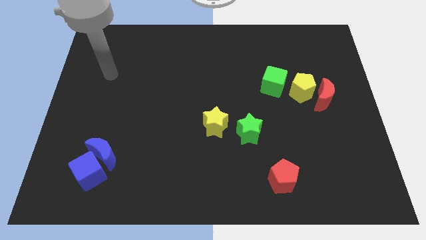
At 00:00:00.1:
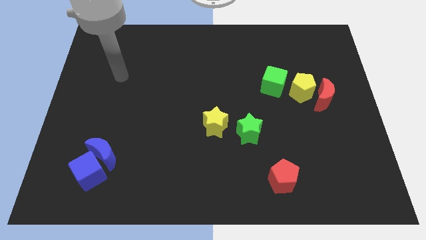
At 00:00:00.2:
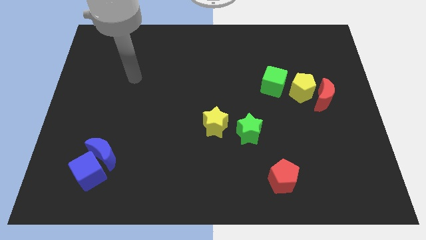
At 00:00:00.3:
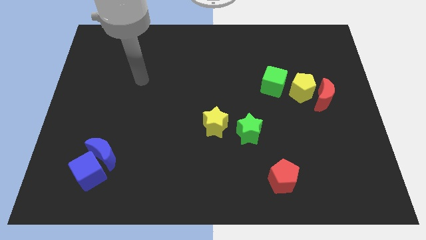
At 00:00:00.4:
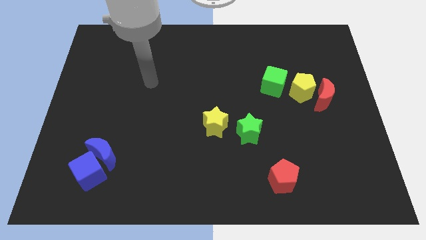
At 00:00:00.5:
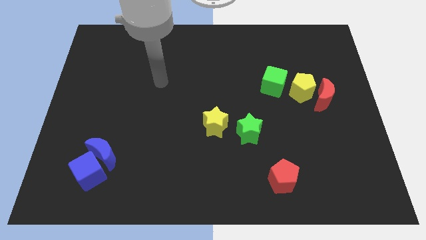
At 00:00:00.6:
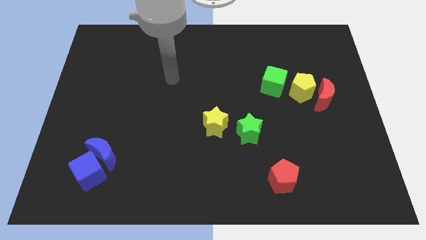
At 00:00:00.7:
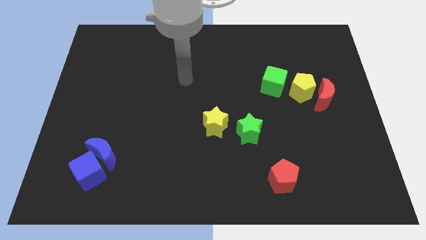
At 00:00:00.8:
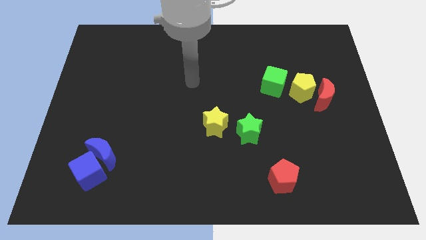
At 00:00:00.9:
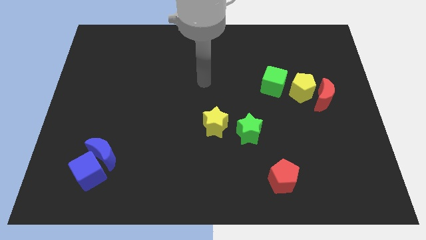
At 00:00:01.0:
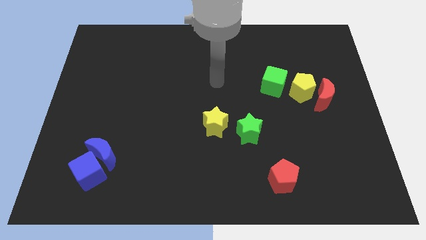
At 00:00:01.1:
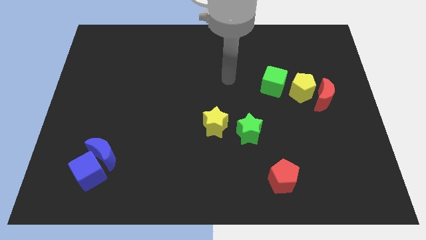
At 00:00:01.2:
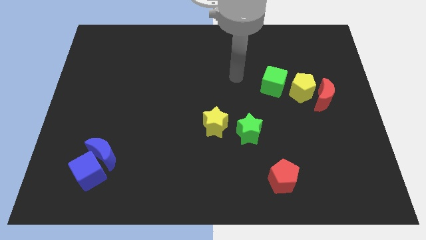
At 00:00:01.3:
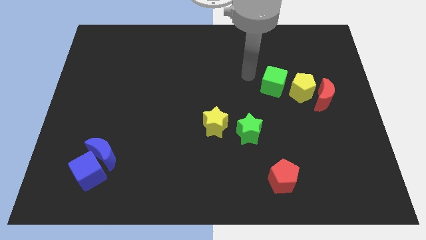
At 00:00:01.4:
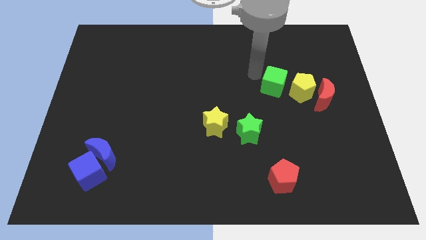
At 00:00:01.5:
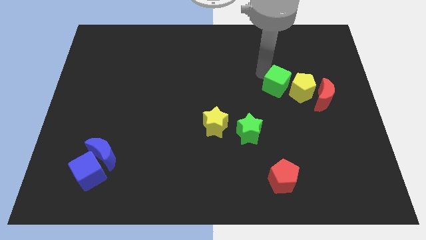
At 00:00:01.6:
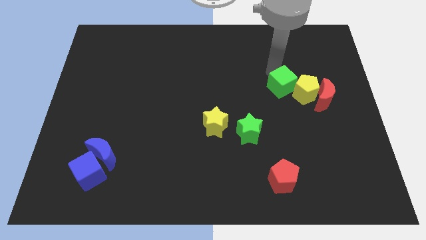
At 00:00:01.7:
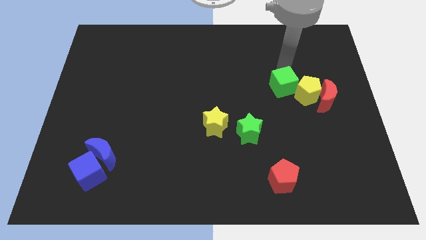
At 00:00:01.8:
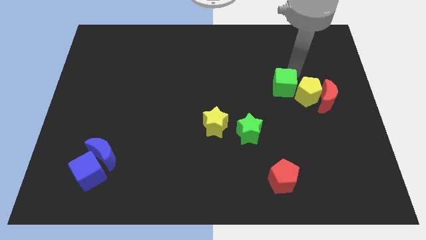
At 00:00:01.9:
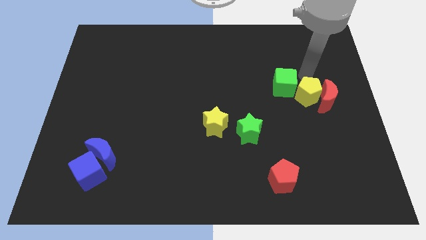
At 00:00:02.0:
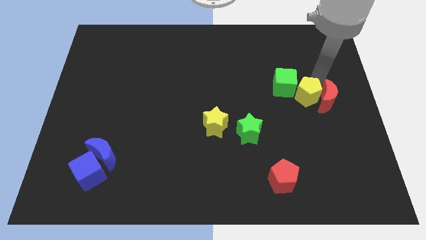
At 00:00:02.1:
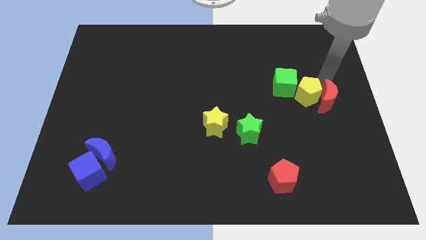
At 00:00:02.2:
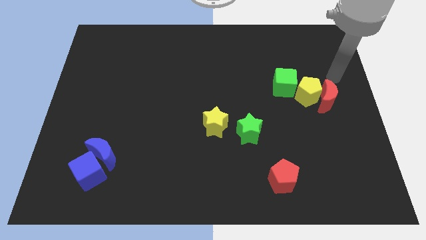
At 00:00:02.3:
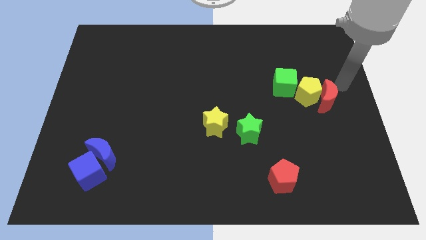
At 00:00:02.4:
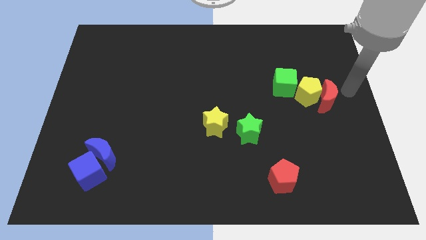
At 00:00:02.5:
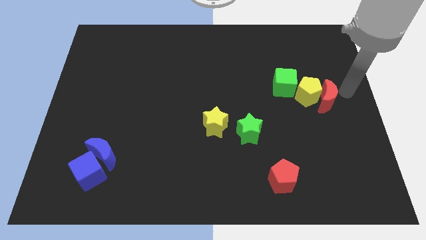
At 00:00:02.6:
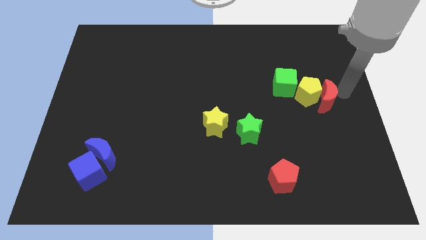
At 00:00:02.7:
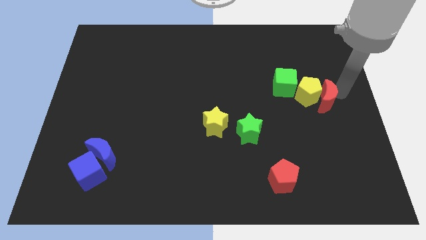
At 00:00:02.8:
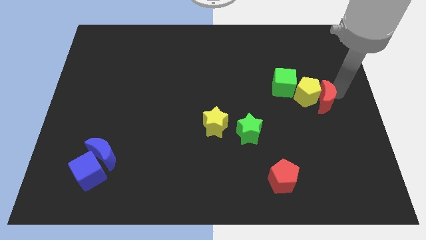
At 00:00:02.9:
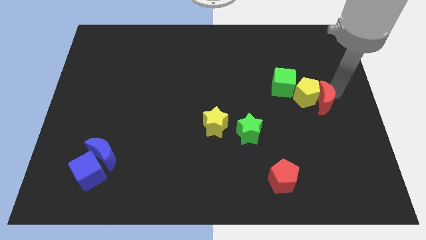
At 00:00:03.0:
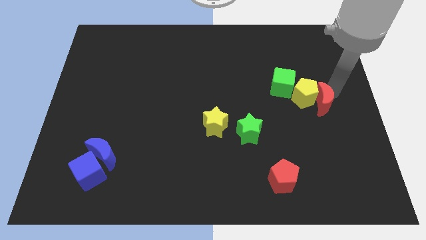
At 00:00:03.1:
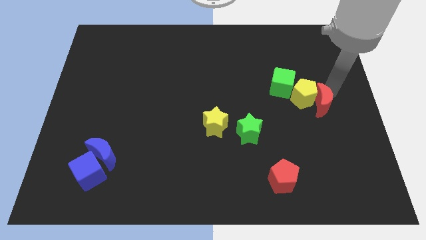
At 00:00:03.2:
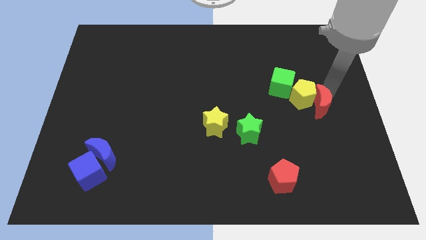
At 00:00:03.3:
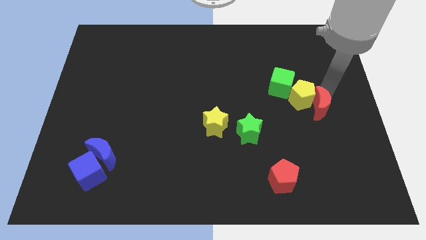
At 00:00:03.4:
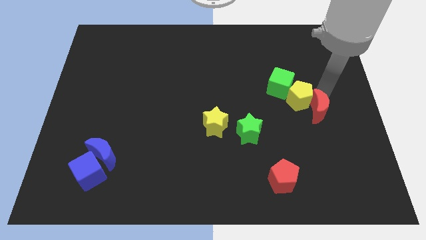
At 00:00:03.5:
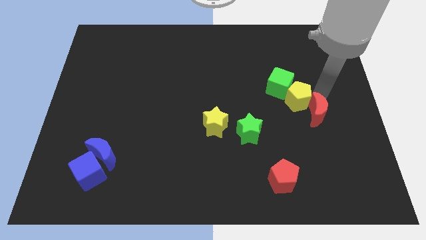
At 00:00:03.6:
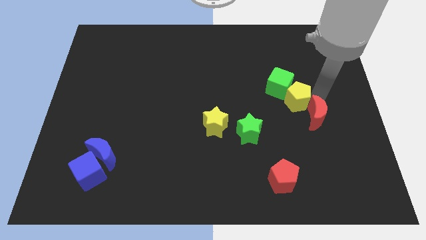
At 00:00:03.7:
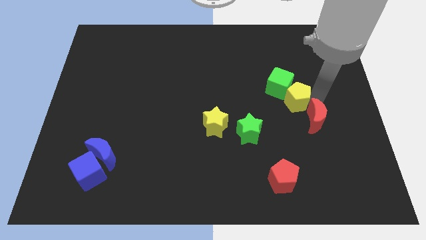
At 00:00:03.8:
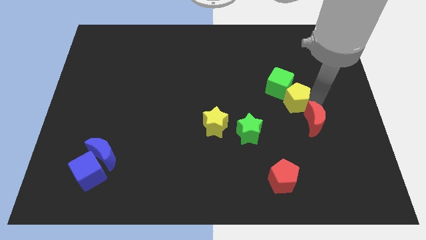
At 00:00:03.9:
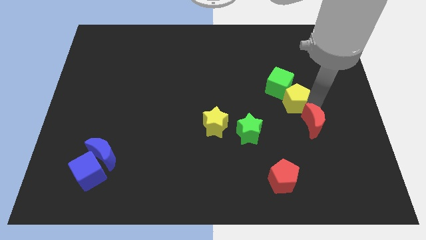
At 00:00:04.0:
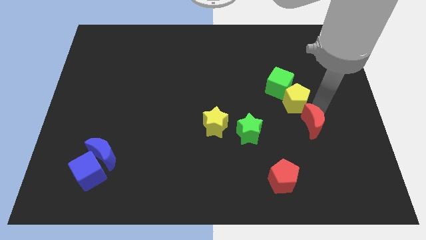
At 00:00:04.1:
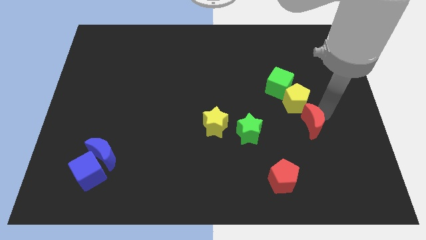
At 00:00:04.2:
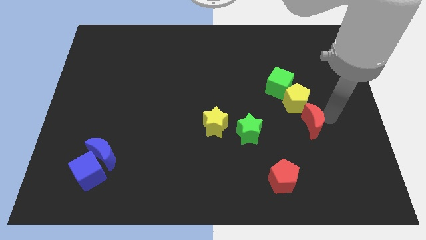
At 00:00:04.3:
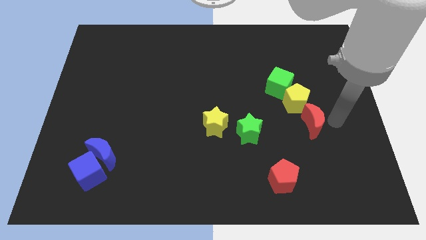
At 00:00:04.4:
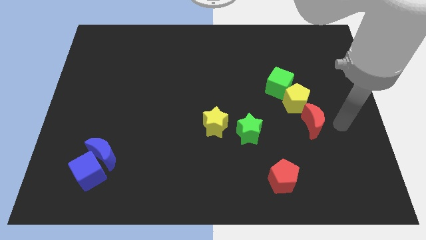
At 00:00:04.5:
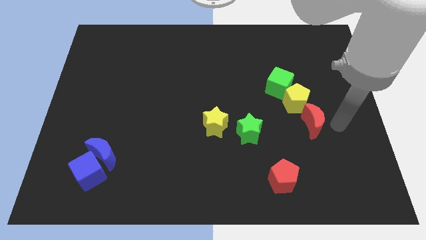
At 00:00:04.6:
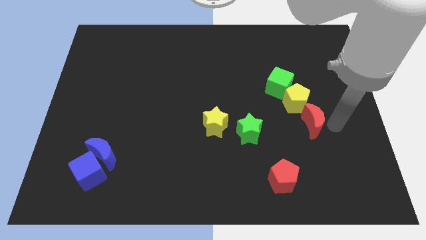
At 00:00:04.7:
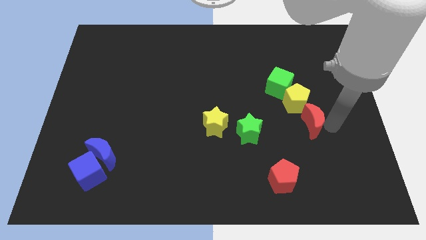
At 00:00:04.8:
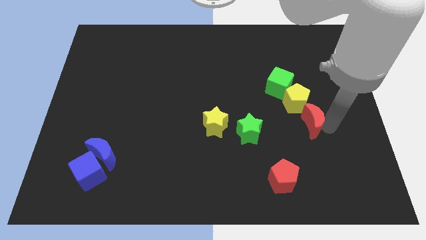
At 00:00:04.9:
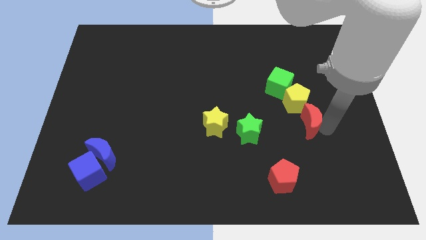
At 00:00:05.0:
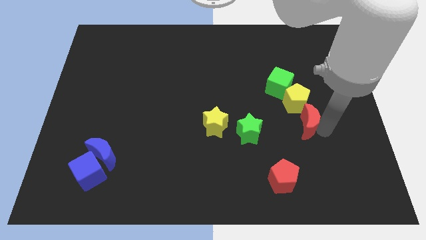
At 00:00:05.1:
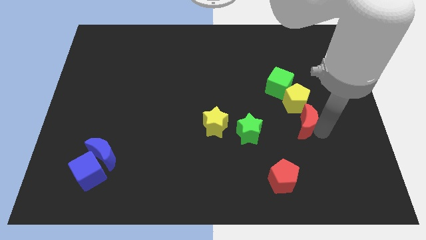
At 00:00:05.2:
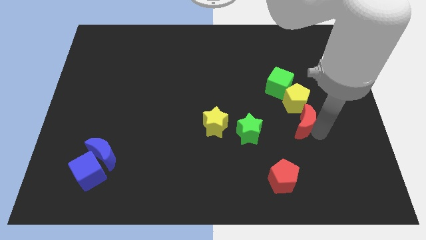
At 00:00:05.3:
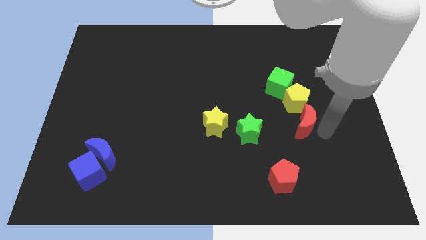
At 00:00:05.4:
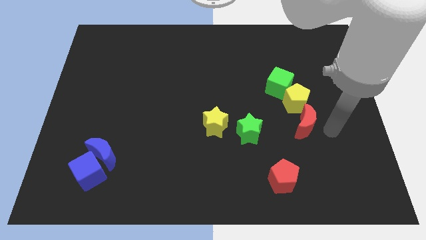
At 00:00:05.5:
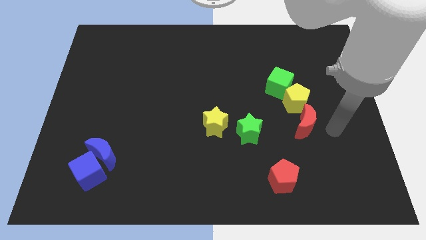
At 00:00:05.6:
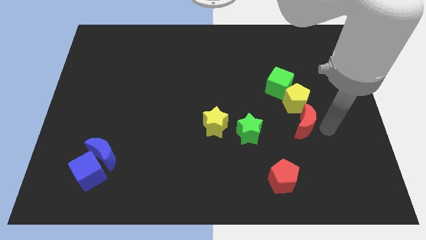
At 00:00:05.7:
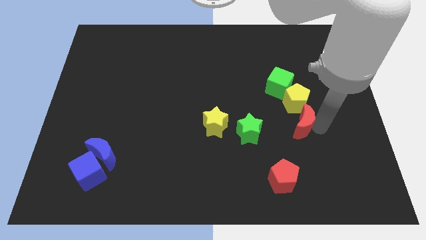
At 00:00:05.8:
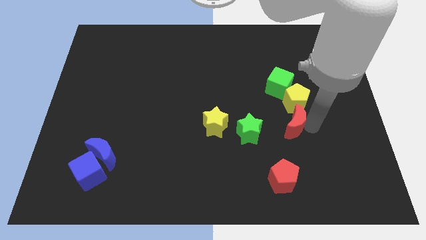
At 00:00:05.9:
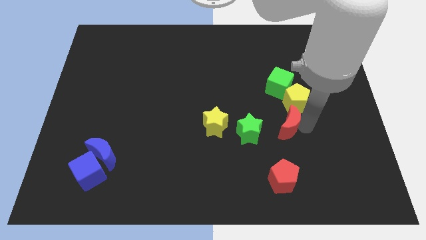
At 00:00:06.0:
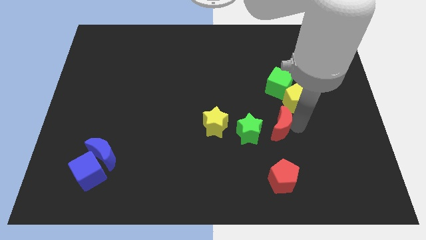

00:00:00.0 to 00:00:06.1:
move the red moon right of the yellow star

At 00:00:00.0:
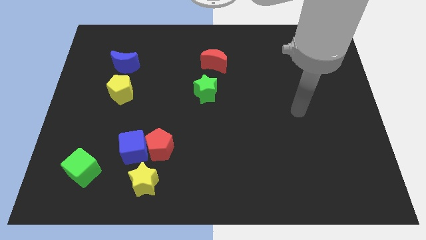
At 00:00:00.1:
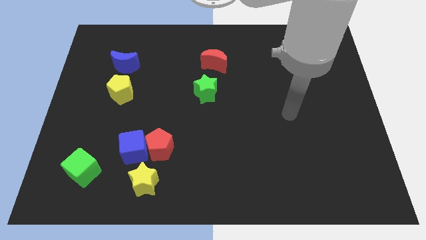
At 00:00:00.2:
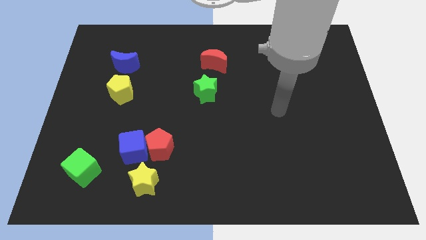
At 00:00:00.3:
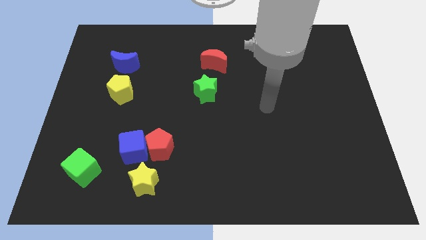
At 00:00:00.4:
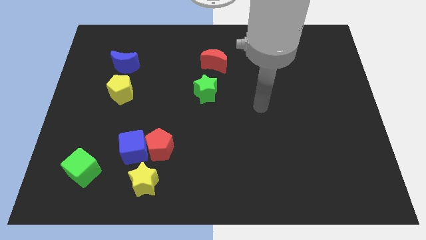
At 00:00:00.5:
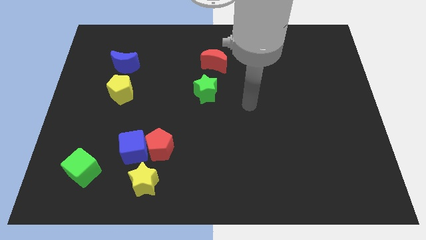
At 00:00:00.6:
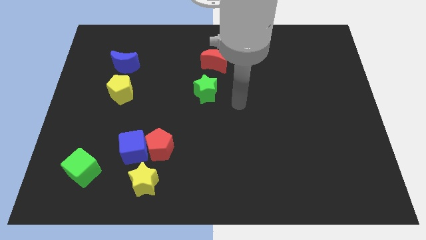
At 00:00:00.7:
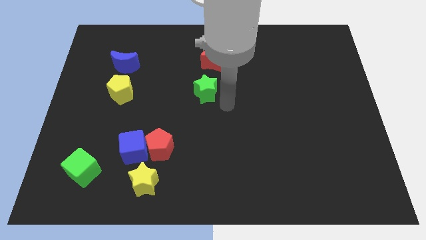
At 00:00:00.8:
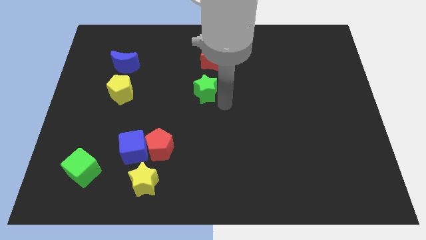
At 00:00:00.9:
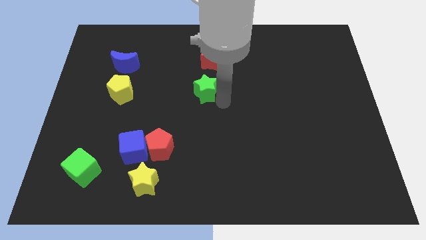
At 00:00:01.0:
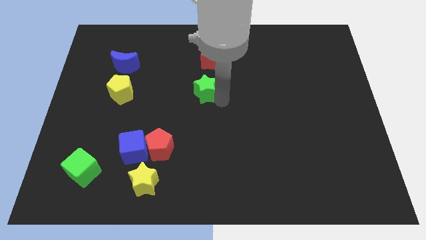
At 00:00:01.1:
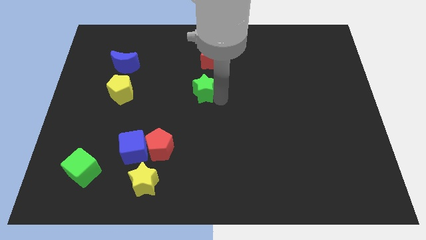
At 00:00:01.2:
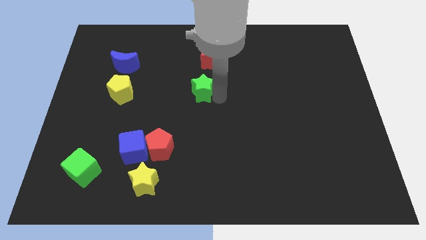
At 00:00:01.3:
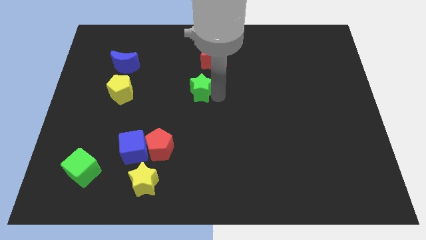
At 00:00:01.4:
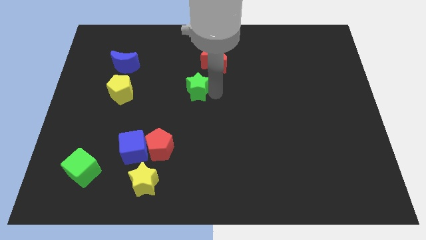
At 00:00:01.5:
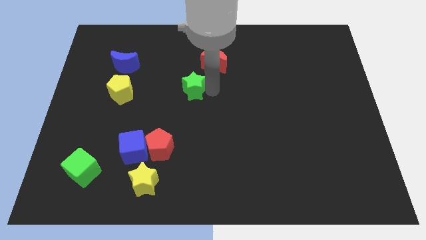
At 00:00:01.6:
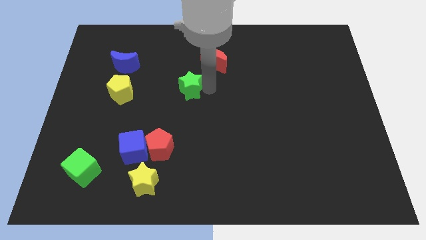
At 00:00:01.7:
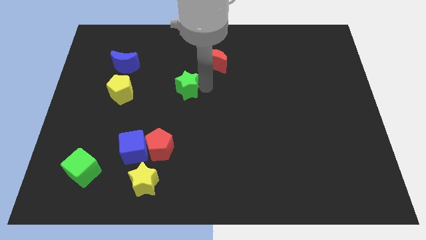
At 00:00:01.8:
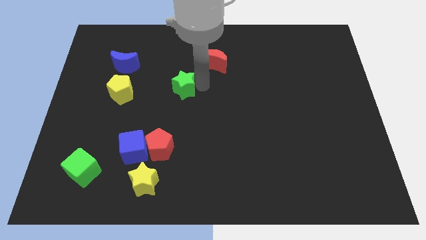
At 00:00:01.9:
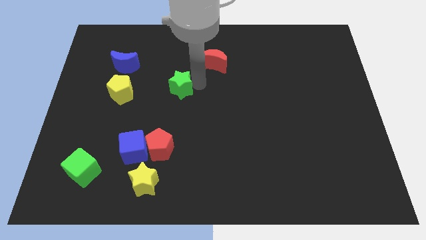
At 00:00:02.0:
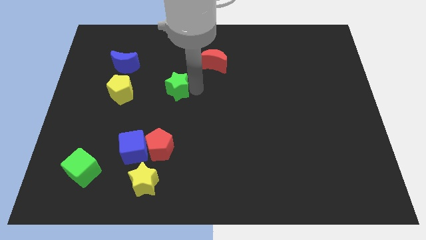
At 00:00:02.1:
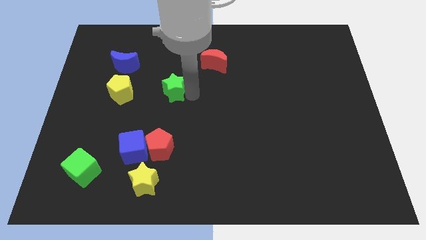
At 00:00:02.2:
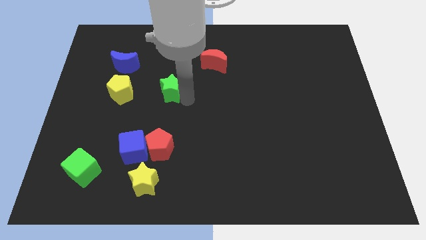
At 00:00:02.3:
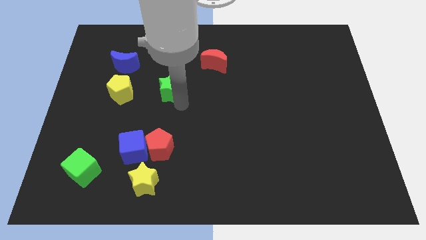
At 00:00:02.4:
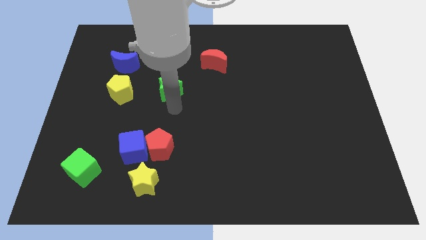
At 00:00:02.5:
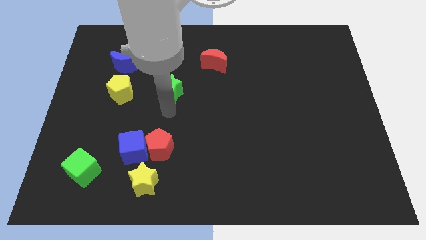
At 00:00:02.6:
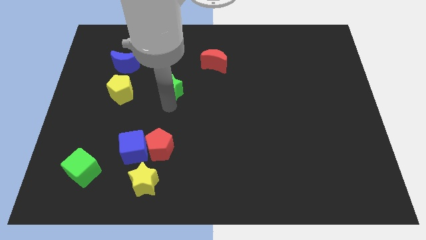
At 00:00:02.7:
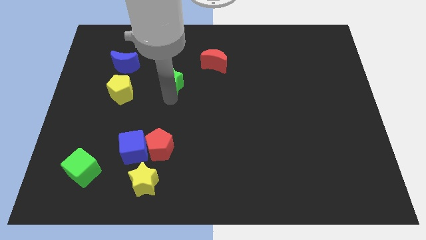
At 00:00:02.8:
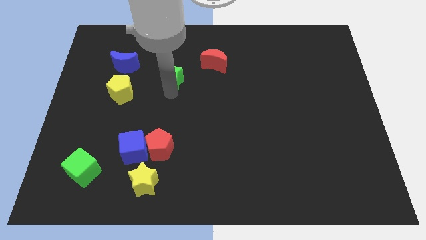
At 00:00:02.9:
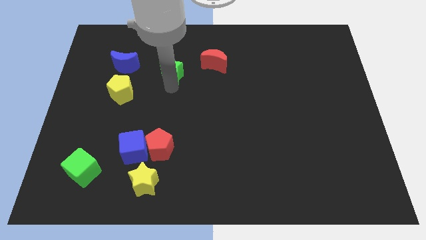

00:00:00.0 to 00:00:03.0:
slide the green star left of the red moon
